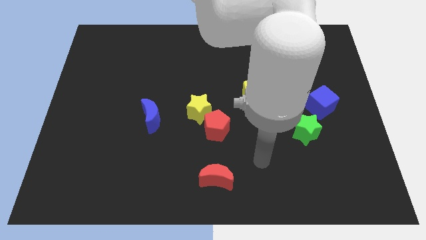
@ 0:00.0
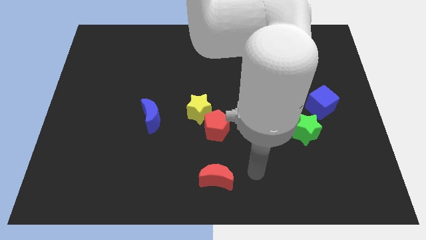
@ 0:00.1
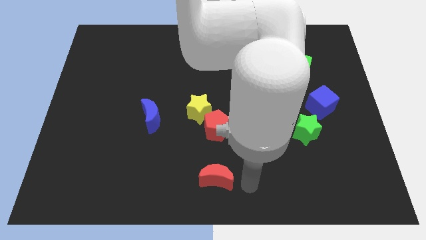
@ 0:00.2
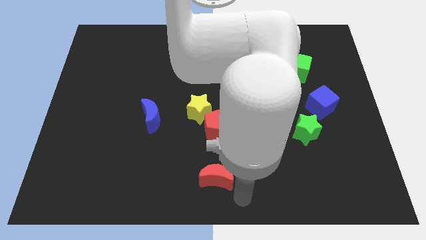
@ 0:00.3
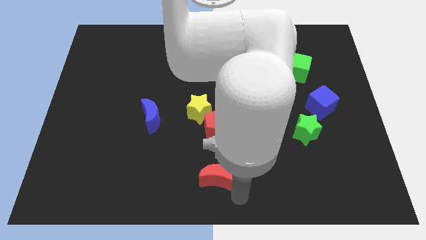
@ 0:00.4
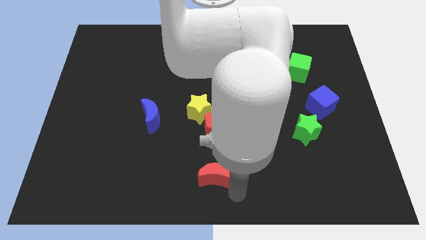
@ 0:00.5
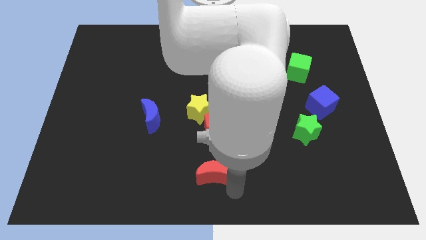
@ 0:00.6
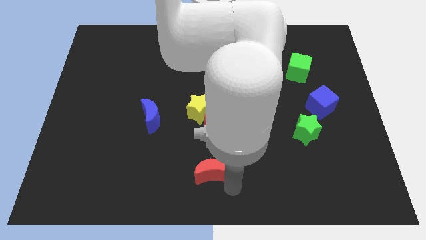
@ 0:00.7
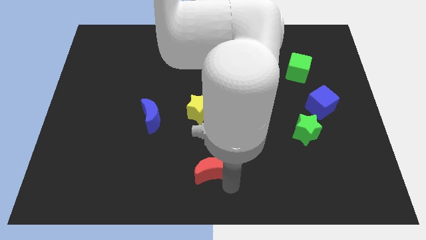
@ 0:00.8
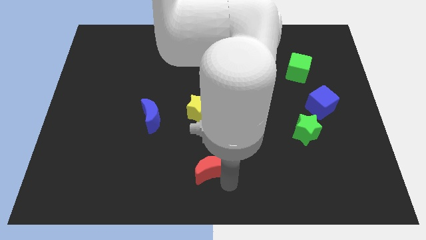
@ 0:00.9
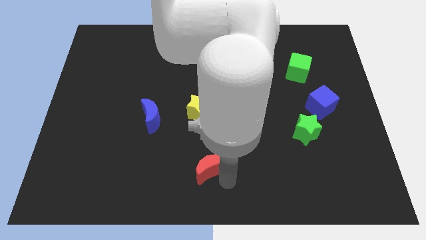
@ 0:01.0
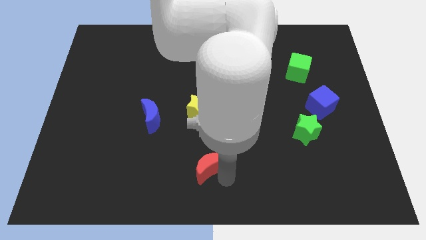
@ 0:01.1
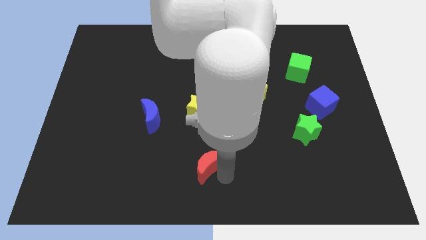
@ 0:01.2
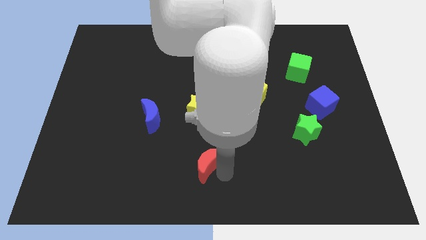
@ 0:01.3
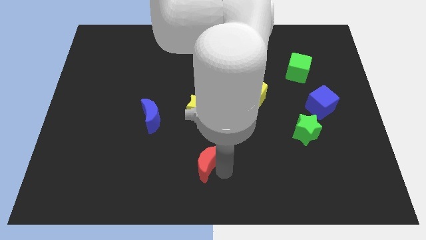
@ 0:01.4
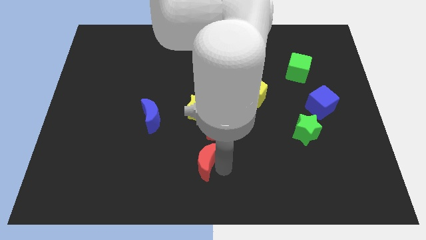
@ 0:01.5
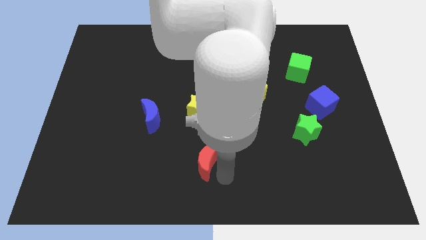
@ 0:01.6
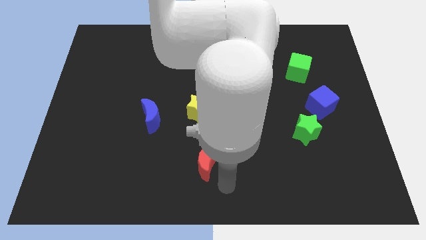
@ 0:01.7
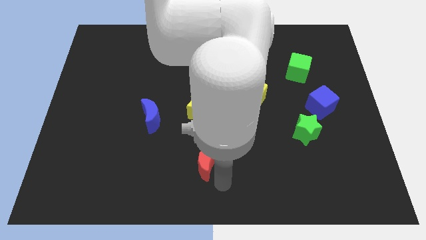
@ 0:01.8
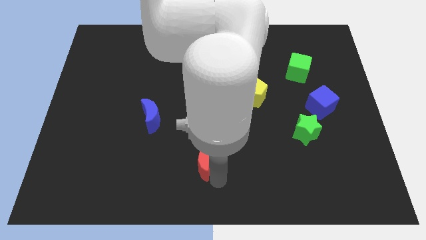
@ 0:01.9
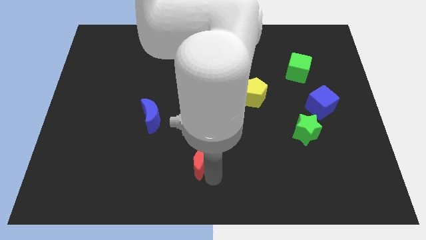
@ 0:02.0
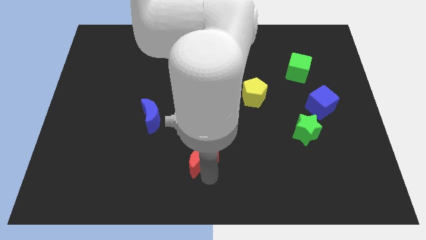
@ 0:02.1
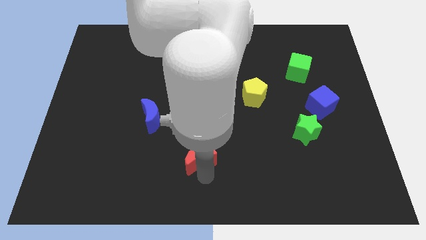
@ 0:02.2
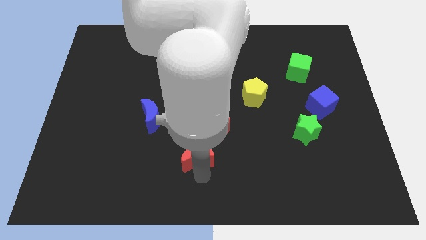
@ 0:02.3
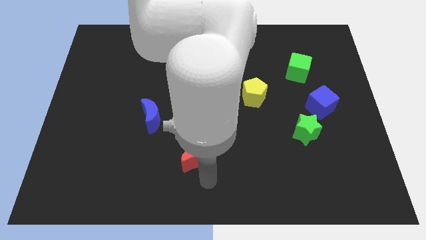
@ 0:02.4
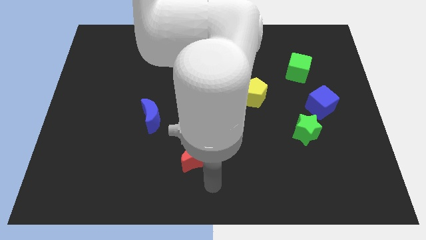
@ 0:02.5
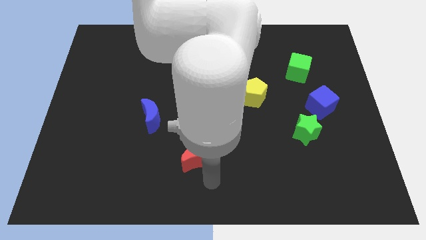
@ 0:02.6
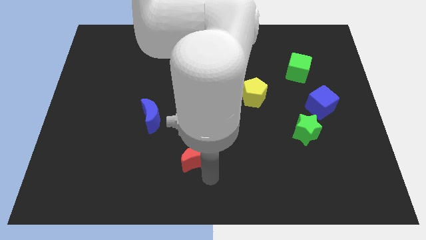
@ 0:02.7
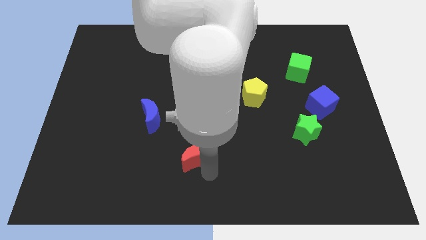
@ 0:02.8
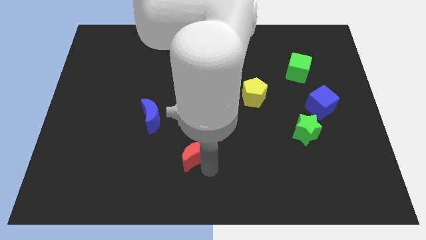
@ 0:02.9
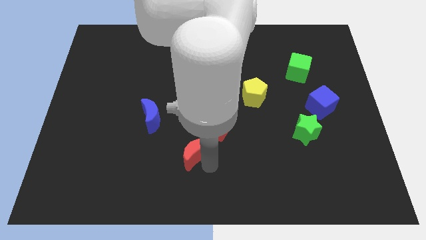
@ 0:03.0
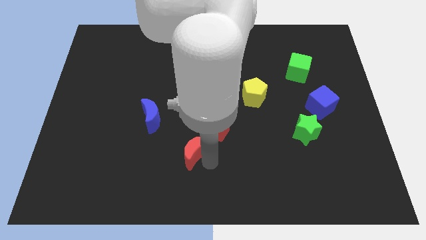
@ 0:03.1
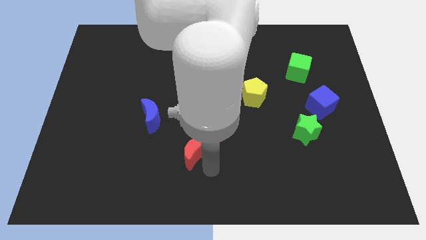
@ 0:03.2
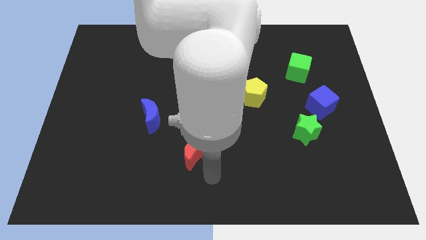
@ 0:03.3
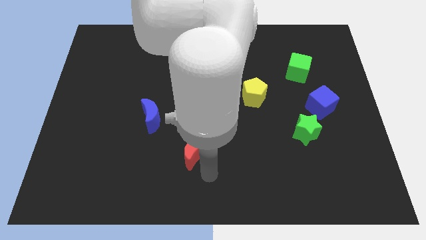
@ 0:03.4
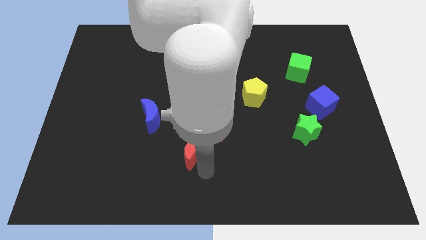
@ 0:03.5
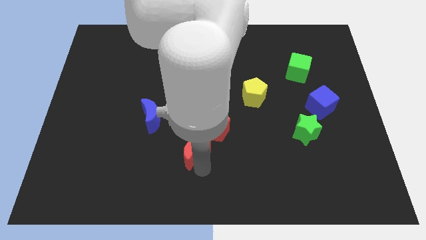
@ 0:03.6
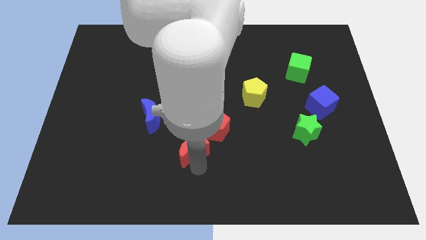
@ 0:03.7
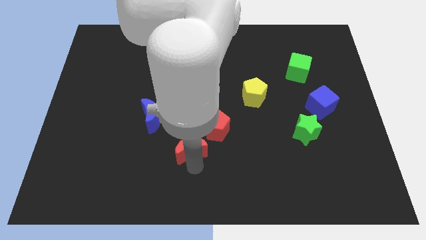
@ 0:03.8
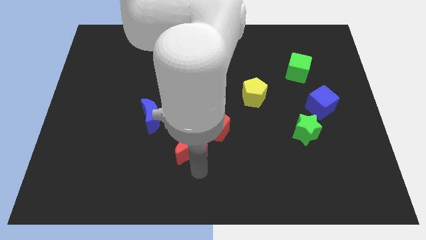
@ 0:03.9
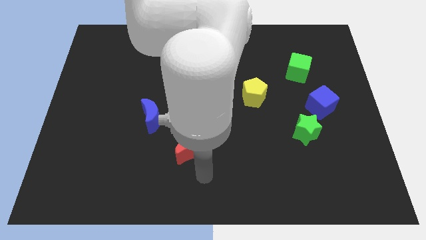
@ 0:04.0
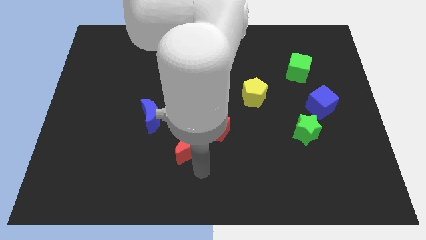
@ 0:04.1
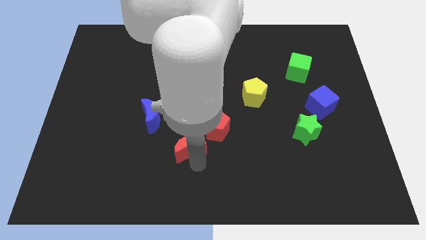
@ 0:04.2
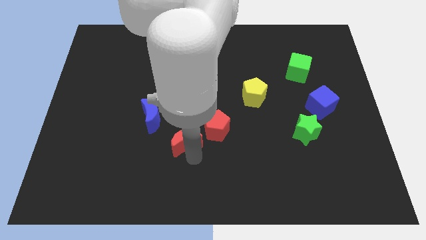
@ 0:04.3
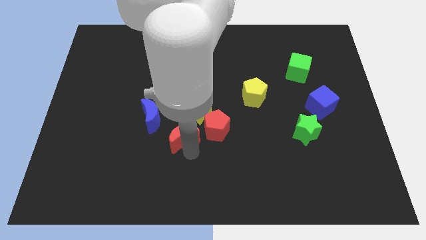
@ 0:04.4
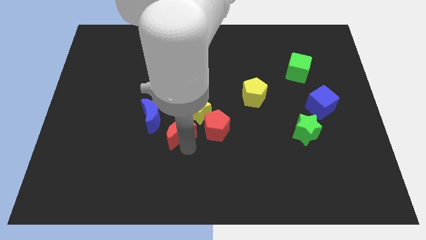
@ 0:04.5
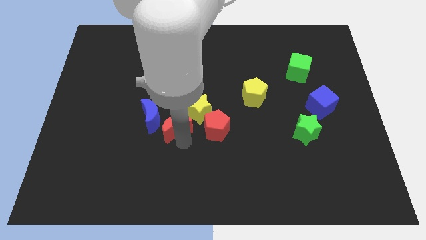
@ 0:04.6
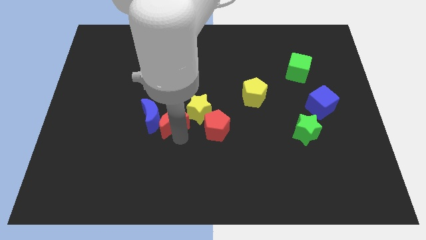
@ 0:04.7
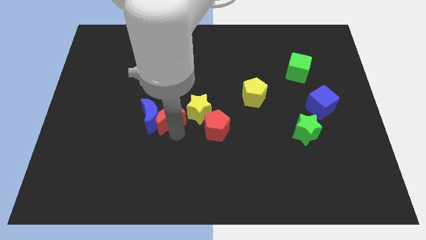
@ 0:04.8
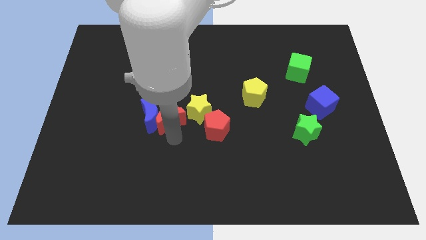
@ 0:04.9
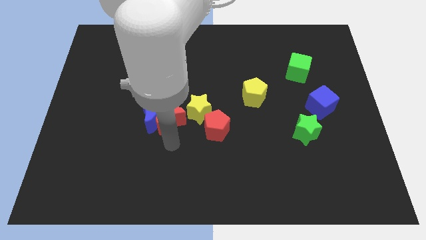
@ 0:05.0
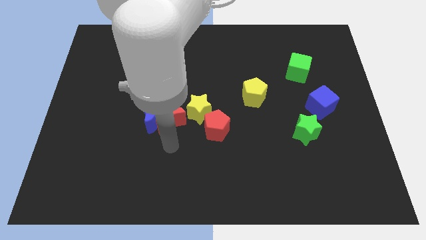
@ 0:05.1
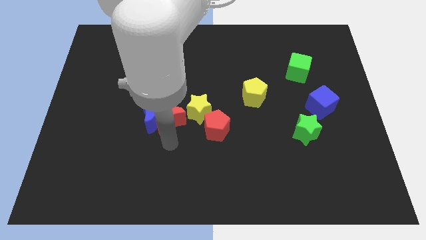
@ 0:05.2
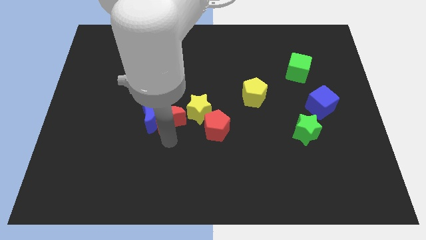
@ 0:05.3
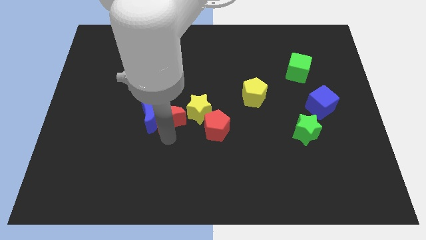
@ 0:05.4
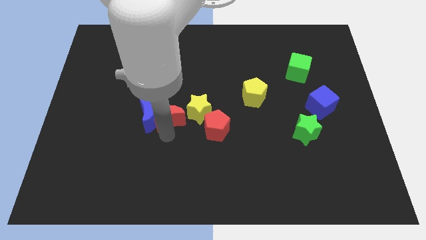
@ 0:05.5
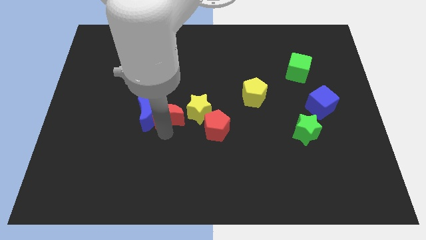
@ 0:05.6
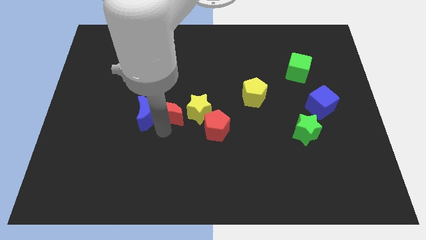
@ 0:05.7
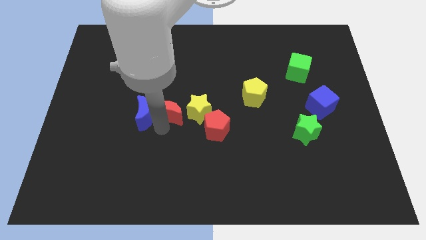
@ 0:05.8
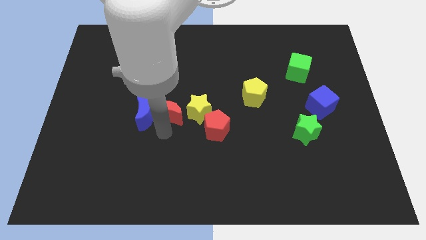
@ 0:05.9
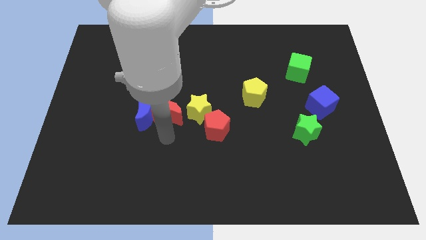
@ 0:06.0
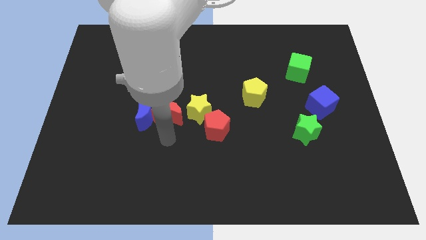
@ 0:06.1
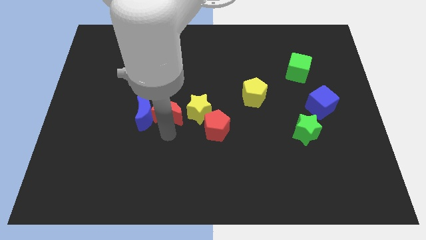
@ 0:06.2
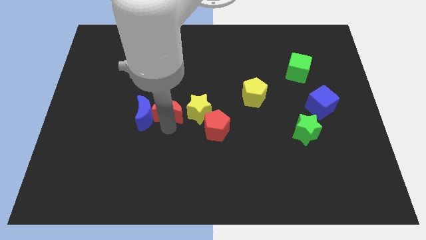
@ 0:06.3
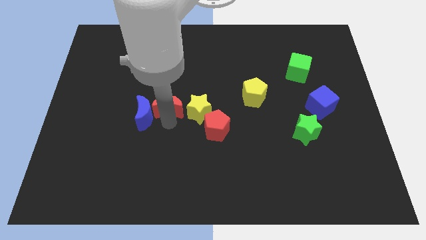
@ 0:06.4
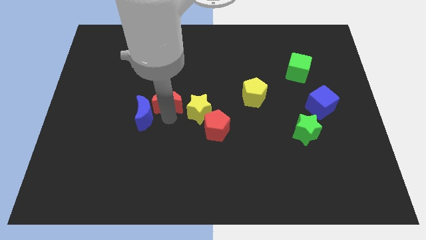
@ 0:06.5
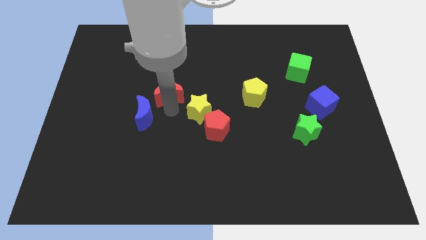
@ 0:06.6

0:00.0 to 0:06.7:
push the red moon to the top of the blue moon
